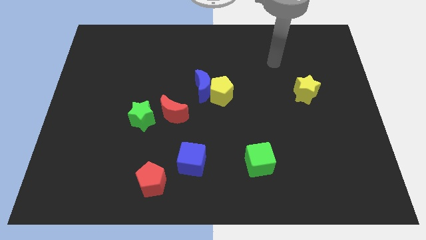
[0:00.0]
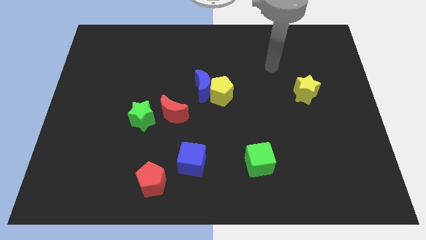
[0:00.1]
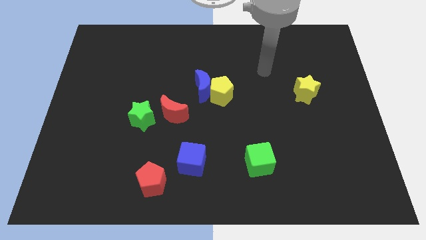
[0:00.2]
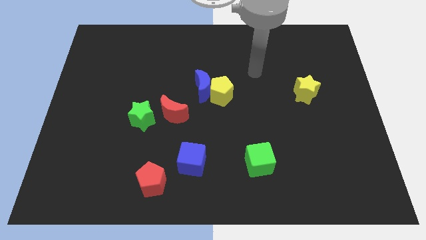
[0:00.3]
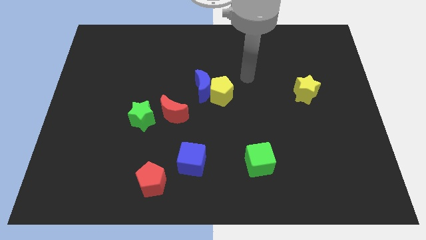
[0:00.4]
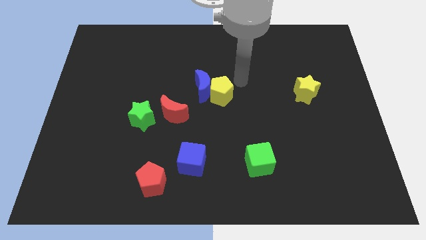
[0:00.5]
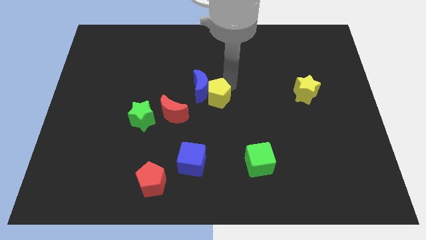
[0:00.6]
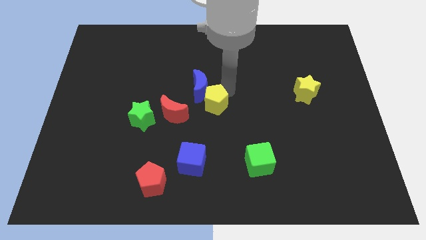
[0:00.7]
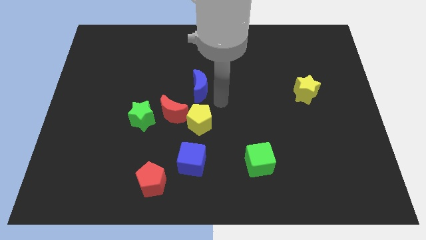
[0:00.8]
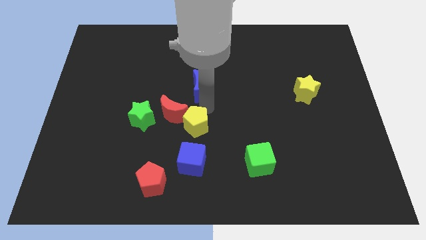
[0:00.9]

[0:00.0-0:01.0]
separate the blue moon from the yellow pentagon

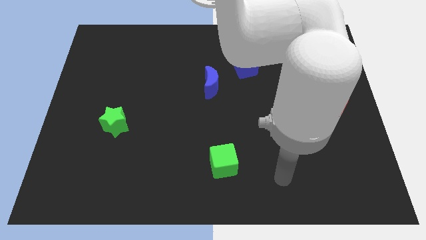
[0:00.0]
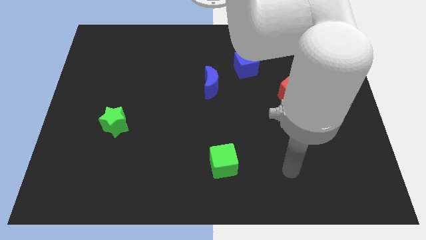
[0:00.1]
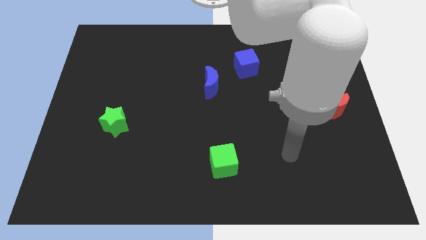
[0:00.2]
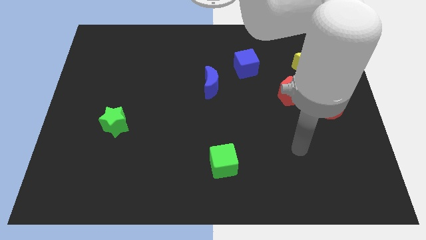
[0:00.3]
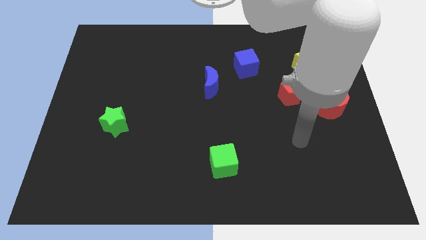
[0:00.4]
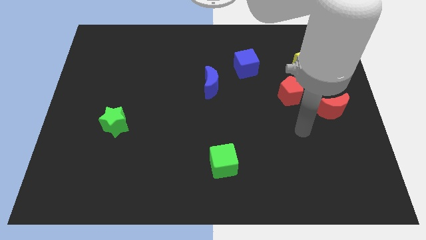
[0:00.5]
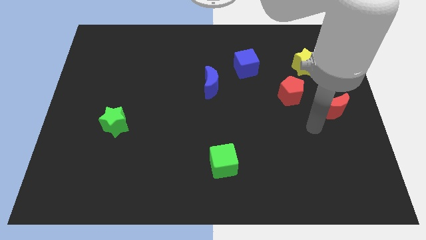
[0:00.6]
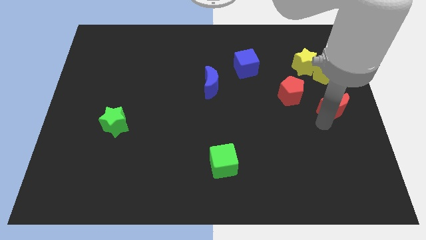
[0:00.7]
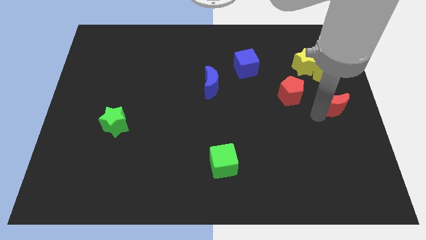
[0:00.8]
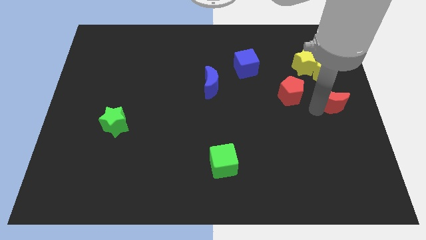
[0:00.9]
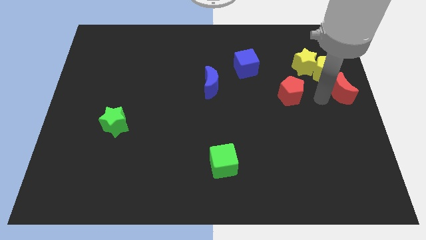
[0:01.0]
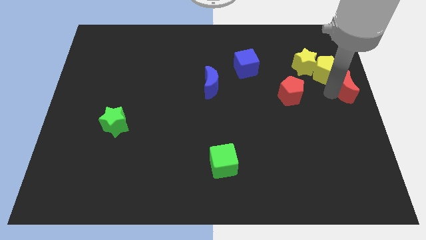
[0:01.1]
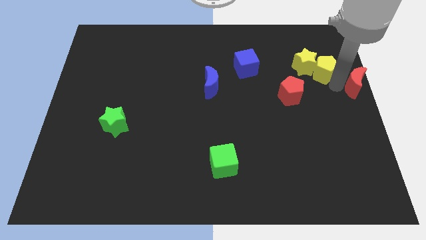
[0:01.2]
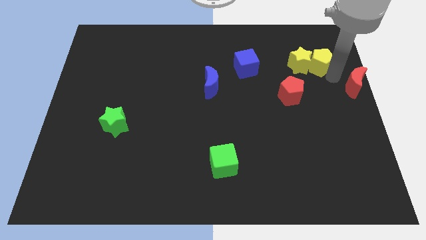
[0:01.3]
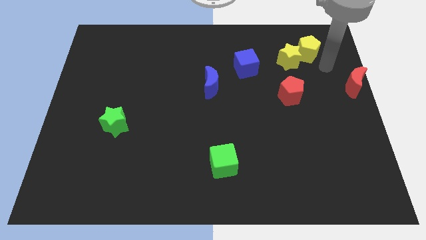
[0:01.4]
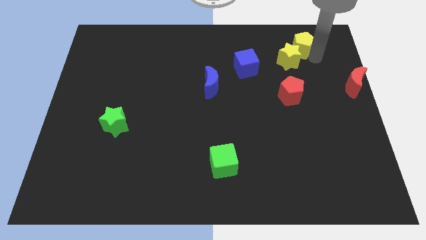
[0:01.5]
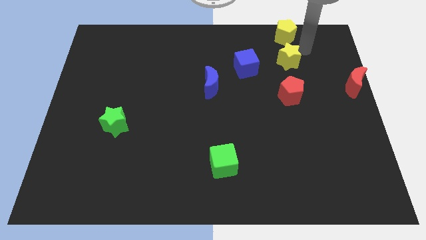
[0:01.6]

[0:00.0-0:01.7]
pull the yellow star apart from the yellow pentagon

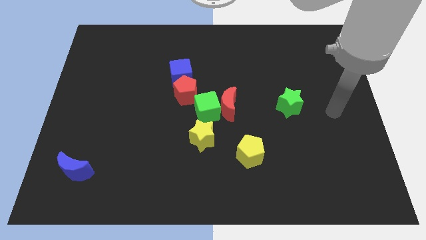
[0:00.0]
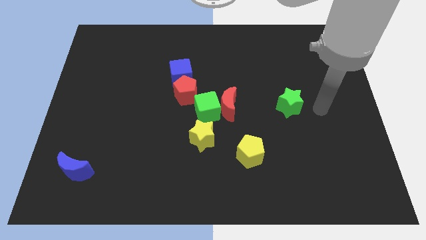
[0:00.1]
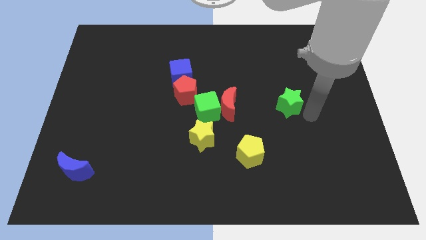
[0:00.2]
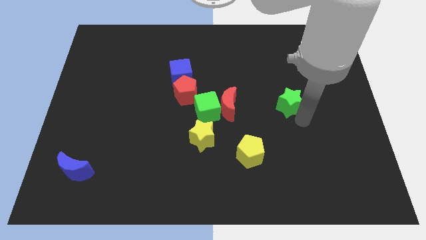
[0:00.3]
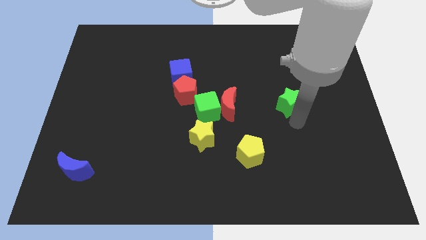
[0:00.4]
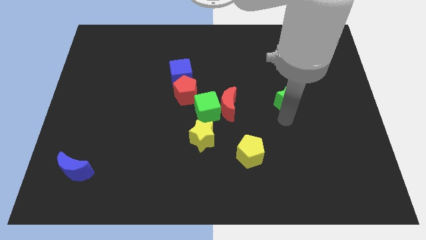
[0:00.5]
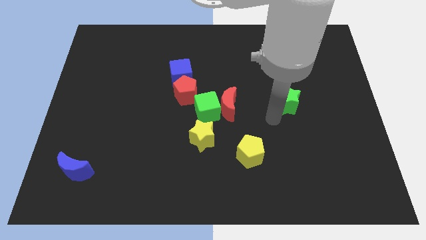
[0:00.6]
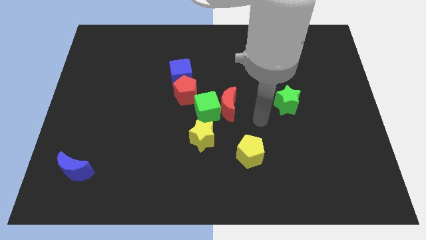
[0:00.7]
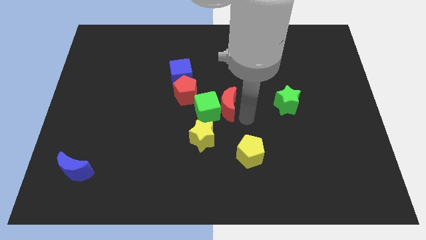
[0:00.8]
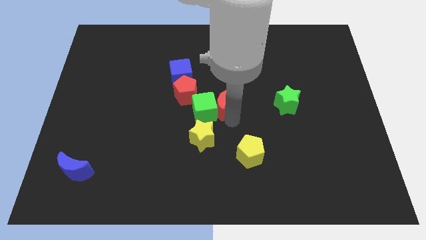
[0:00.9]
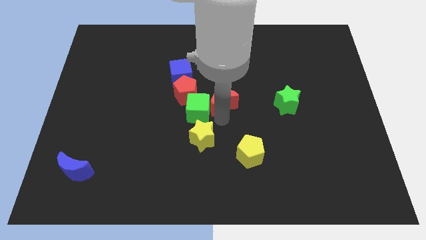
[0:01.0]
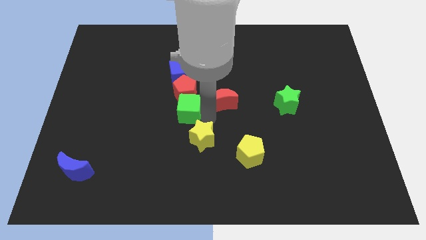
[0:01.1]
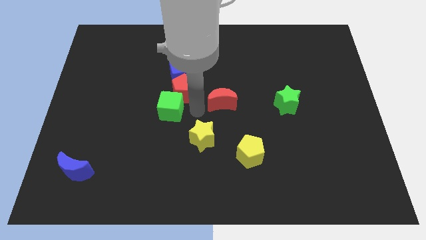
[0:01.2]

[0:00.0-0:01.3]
pull the red moon apart from the green cube

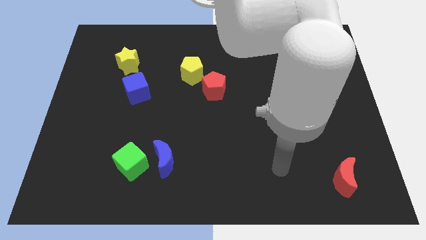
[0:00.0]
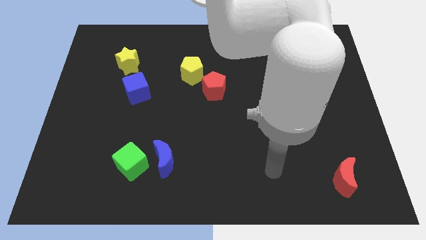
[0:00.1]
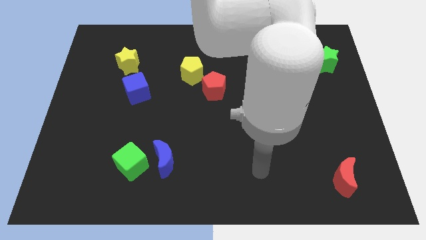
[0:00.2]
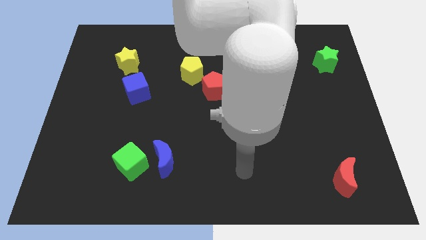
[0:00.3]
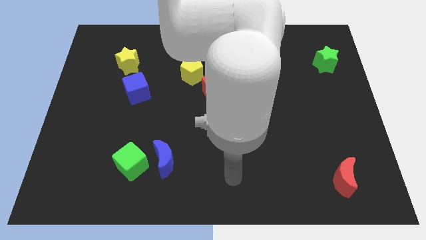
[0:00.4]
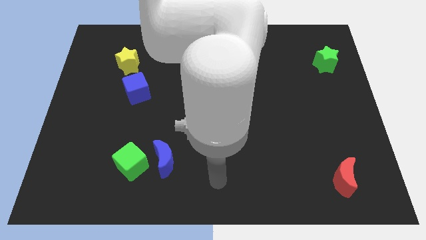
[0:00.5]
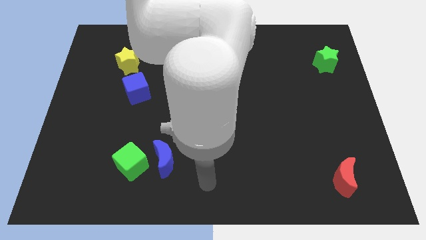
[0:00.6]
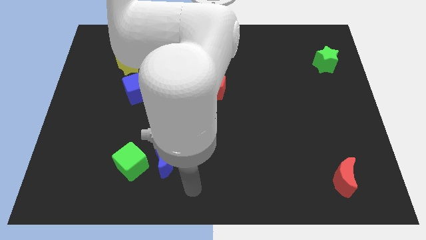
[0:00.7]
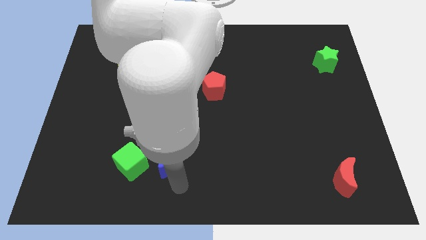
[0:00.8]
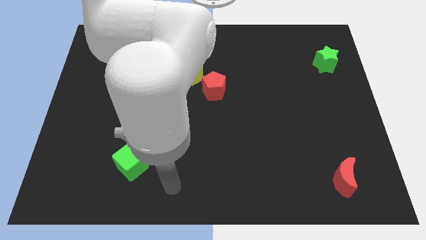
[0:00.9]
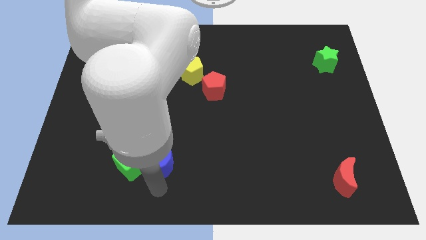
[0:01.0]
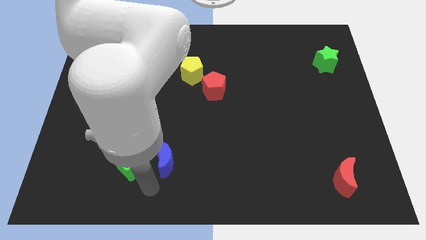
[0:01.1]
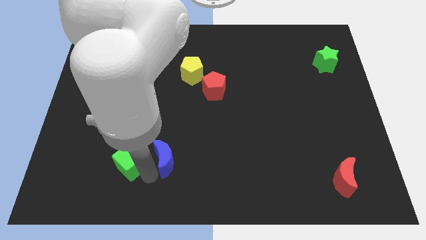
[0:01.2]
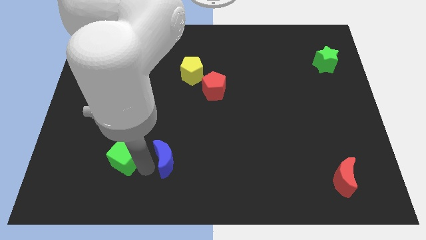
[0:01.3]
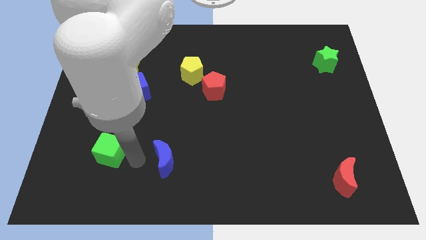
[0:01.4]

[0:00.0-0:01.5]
move the blue moon away from the green cube

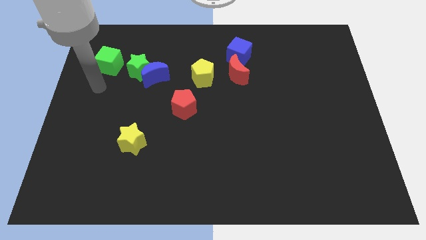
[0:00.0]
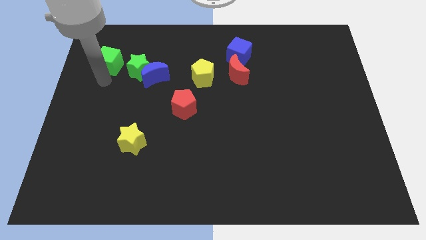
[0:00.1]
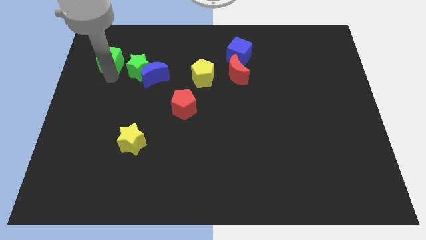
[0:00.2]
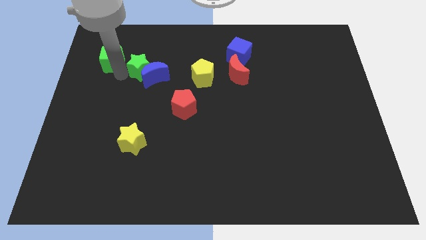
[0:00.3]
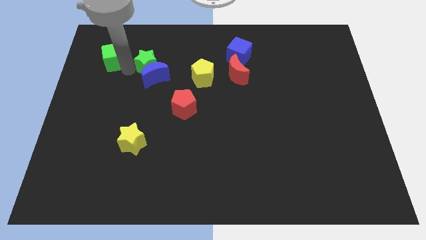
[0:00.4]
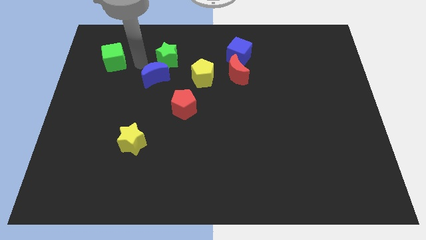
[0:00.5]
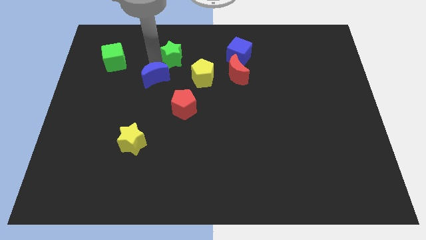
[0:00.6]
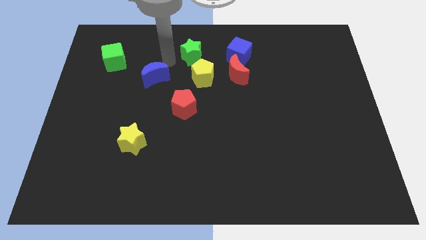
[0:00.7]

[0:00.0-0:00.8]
separate the blue moon from the green star

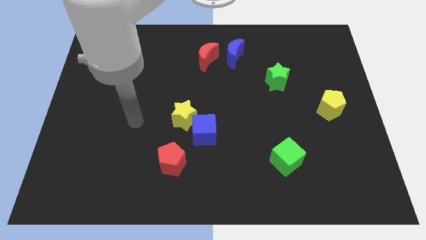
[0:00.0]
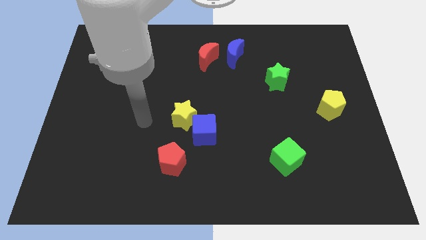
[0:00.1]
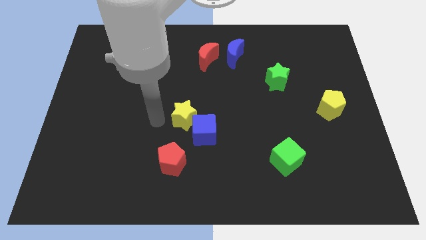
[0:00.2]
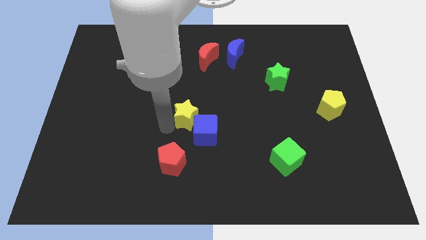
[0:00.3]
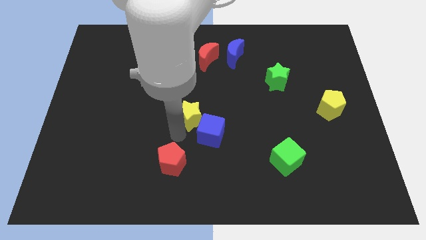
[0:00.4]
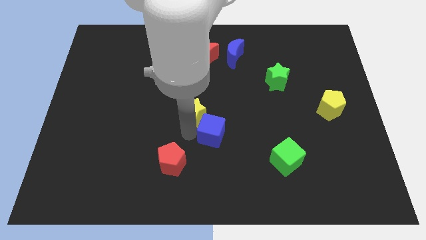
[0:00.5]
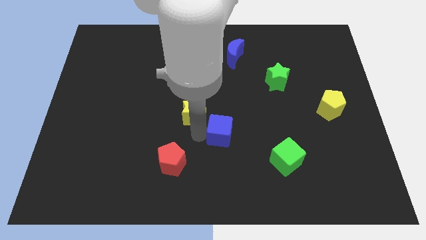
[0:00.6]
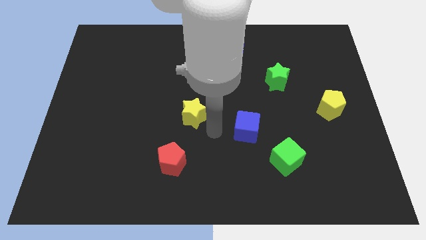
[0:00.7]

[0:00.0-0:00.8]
separate the yellow star from the blue cube

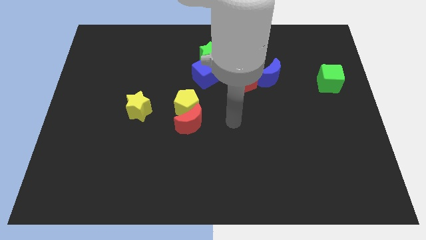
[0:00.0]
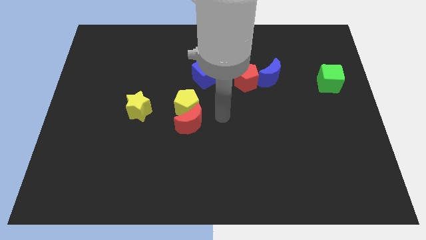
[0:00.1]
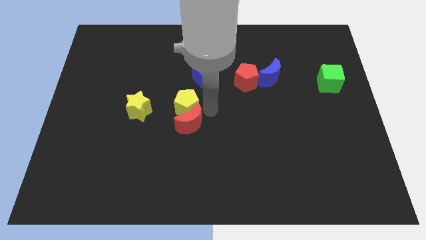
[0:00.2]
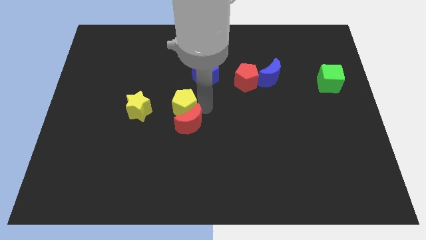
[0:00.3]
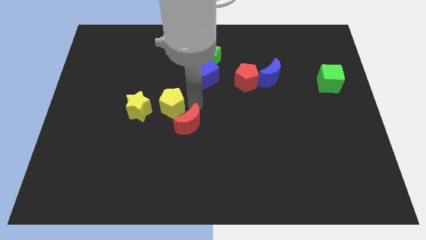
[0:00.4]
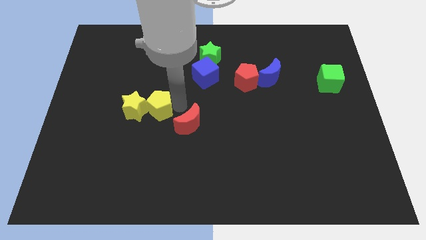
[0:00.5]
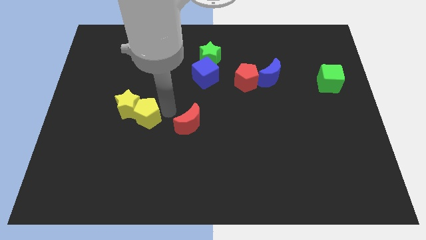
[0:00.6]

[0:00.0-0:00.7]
move the red moon away from the yellow pentagon

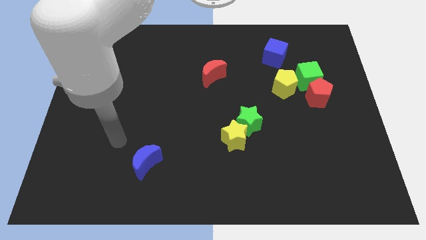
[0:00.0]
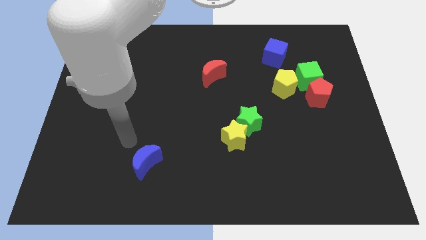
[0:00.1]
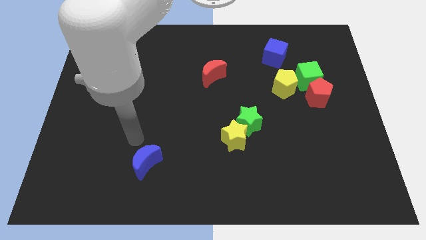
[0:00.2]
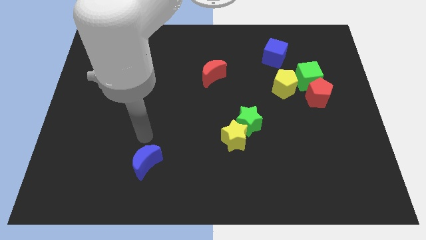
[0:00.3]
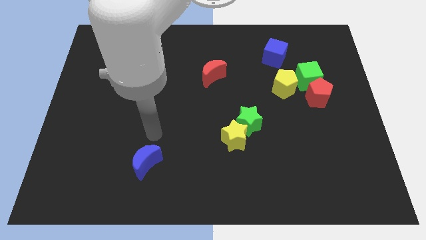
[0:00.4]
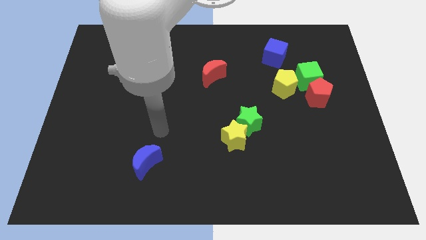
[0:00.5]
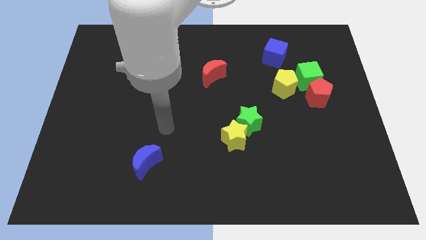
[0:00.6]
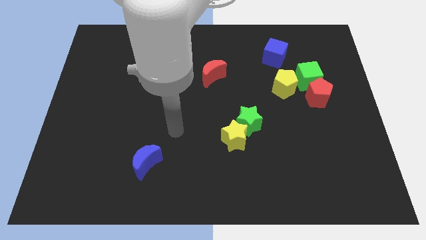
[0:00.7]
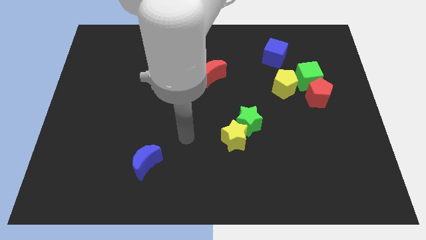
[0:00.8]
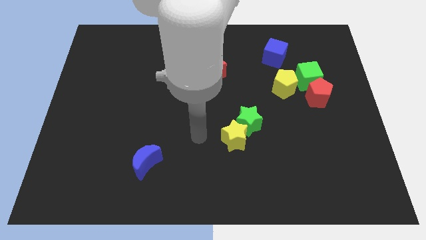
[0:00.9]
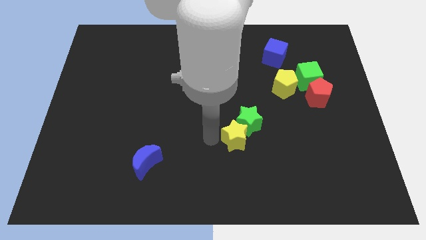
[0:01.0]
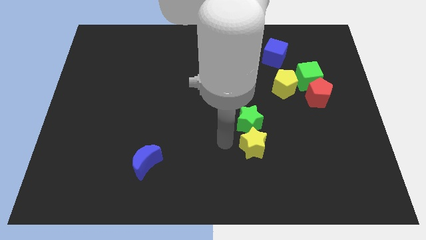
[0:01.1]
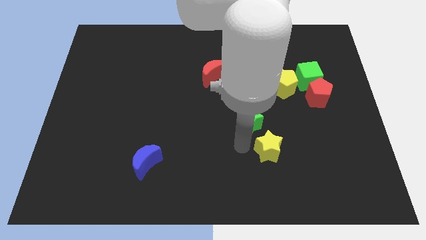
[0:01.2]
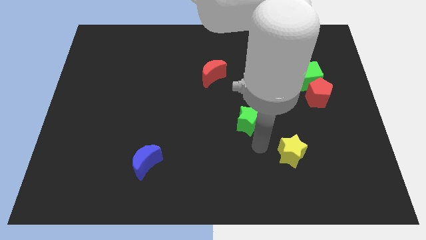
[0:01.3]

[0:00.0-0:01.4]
pull the green star apart from the yellow star

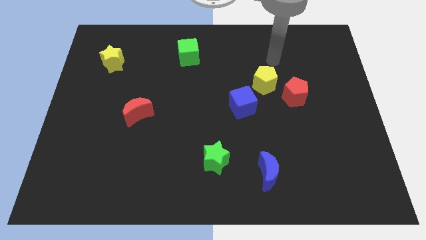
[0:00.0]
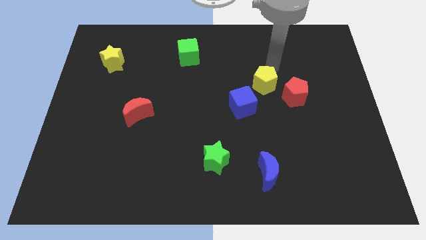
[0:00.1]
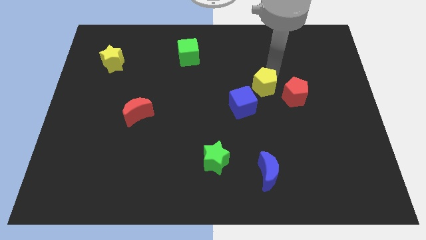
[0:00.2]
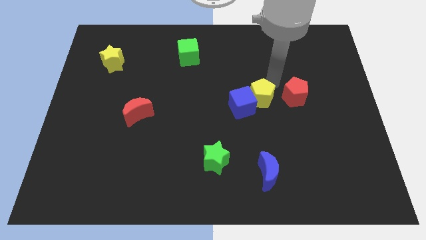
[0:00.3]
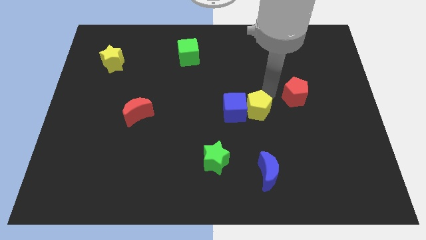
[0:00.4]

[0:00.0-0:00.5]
pull the red pentagon apart from the yellow pentagon
